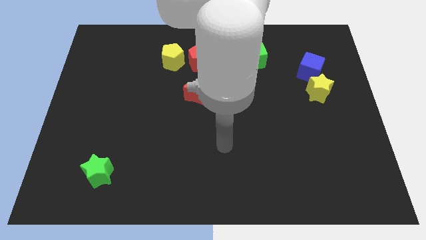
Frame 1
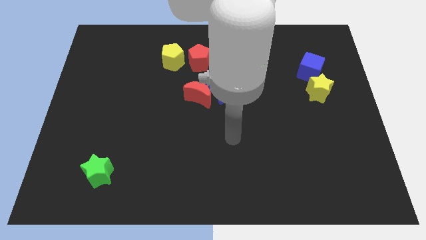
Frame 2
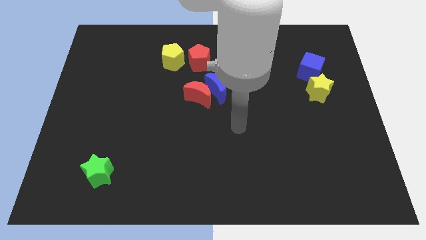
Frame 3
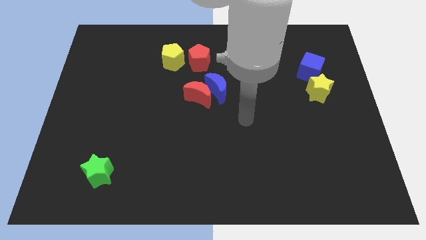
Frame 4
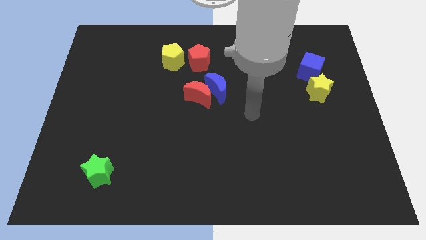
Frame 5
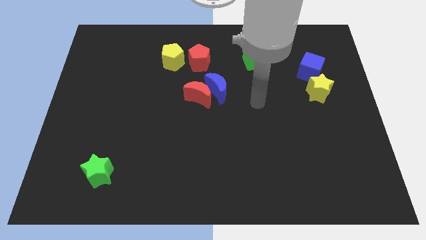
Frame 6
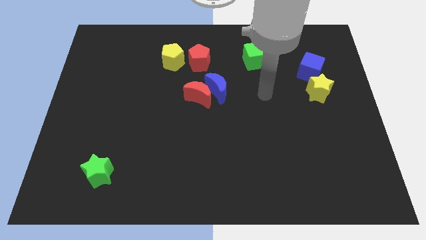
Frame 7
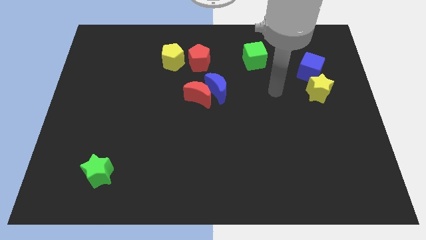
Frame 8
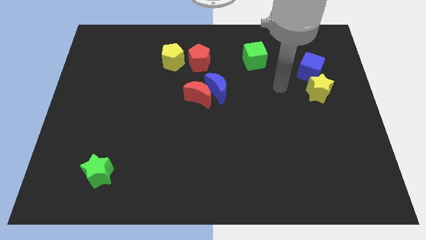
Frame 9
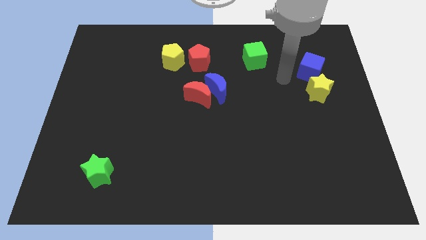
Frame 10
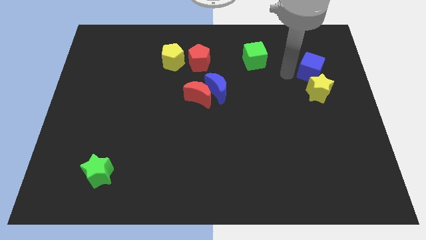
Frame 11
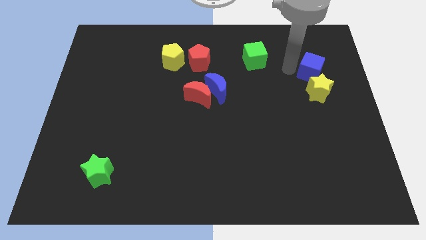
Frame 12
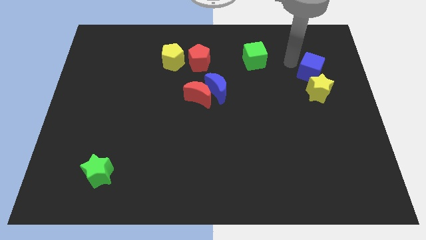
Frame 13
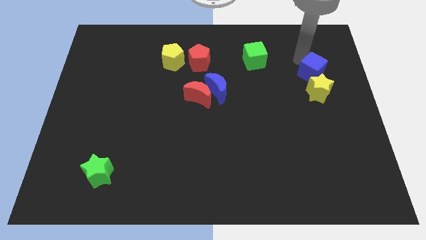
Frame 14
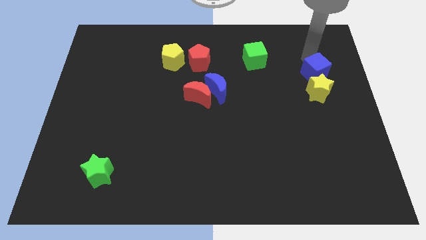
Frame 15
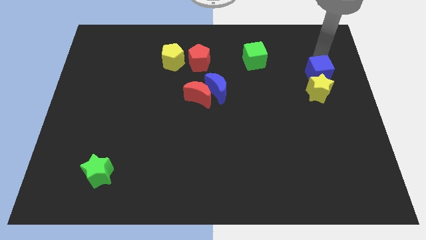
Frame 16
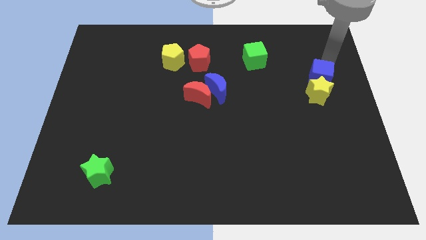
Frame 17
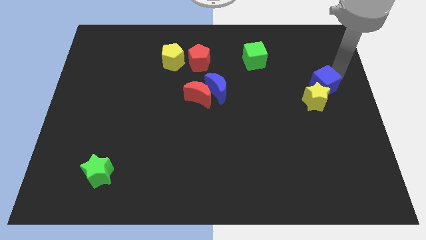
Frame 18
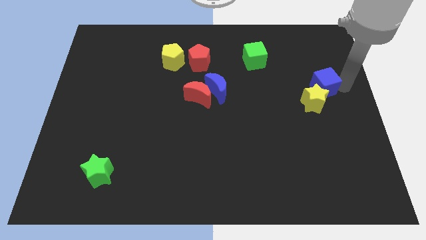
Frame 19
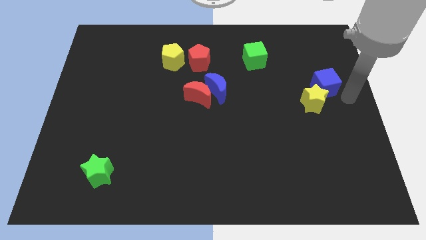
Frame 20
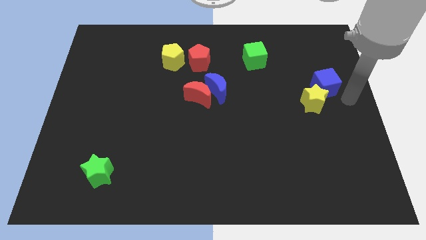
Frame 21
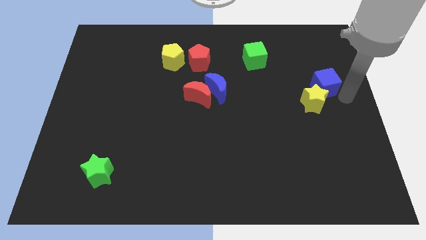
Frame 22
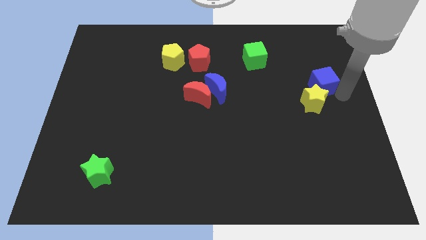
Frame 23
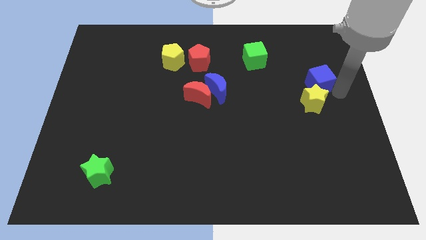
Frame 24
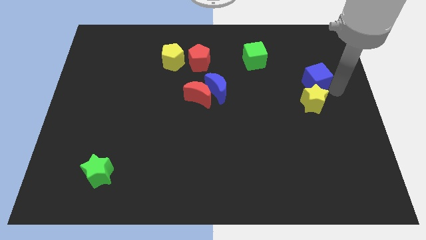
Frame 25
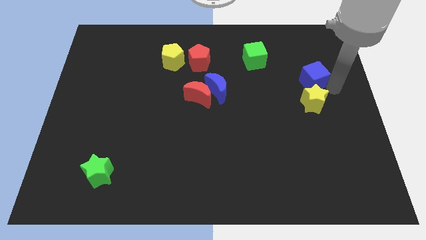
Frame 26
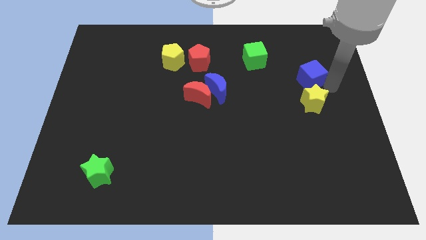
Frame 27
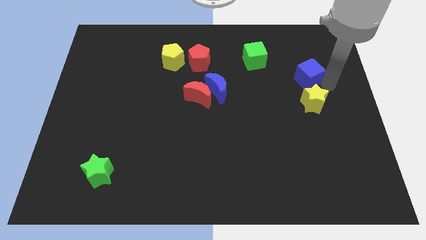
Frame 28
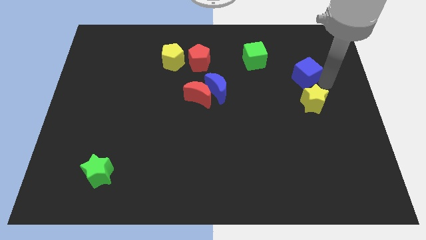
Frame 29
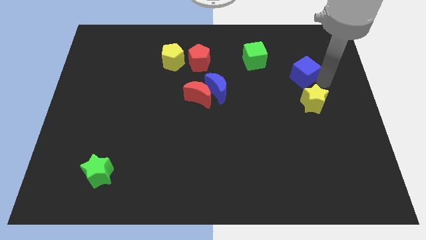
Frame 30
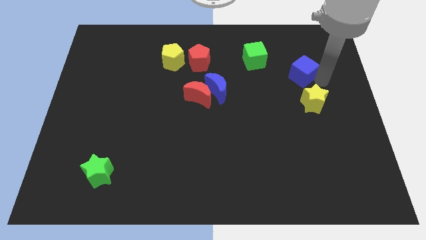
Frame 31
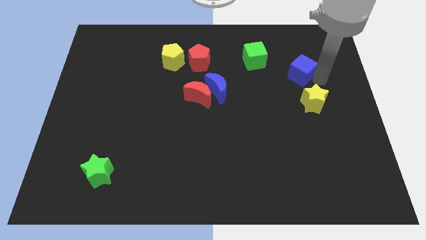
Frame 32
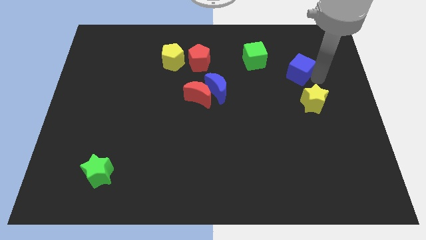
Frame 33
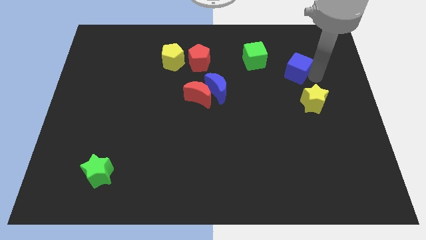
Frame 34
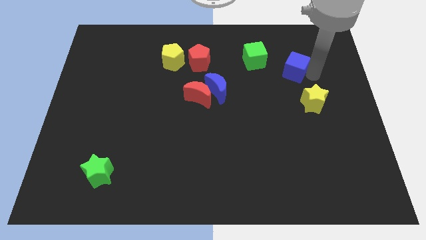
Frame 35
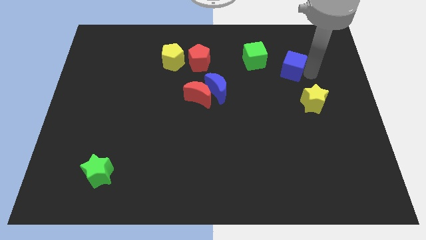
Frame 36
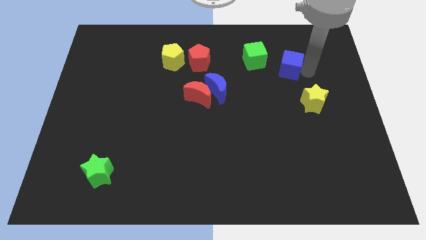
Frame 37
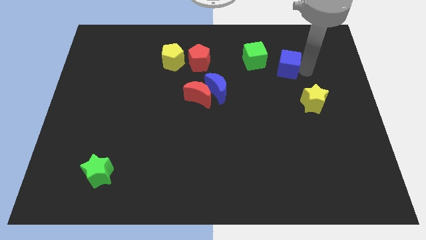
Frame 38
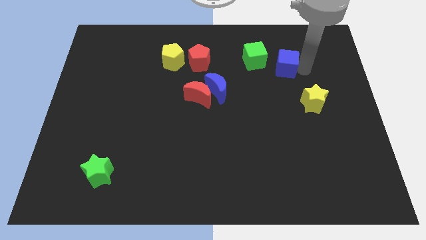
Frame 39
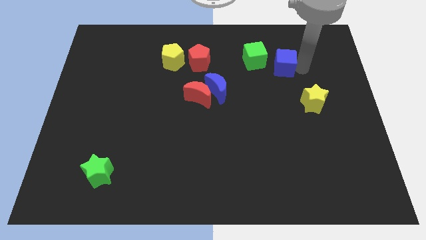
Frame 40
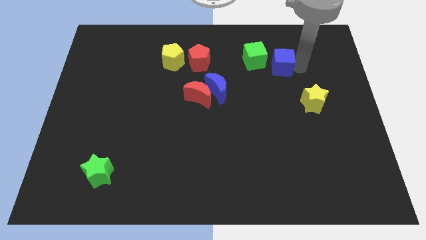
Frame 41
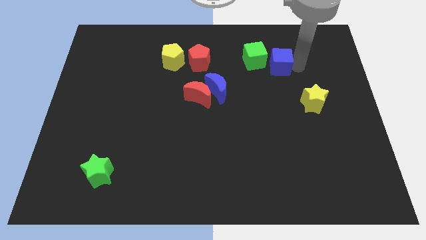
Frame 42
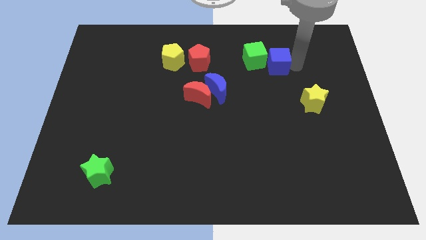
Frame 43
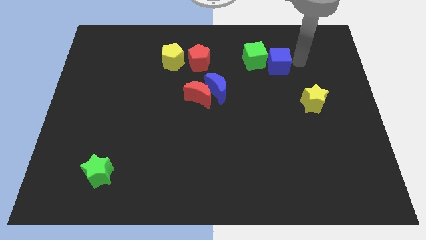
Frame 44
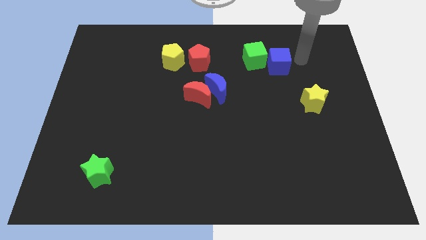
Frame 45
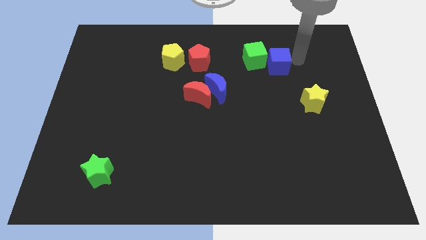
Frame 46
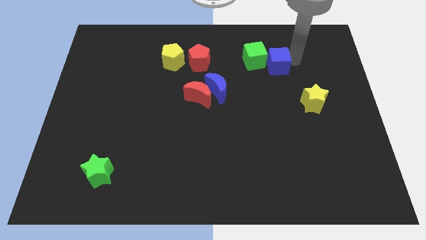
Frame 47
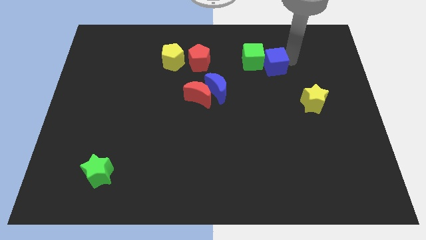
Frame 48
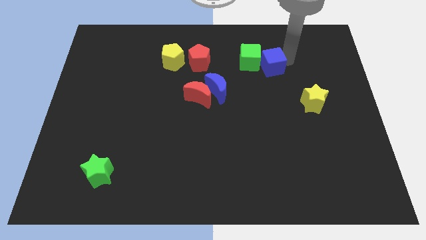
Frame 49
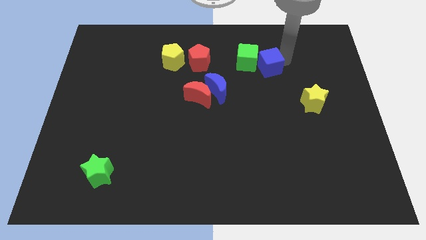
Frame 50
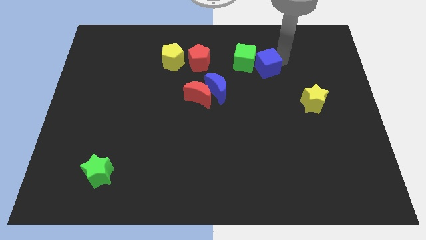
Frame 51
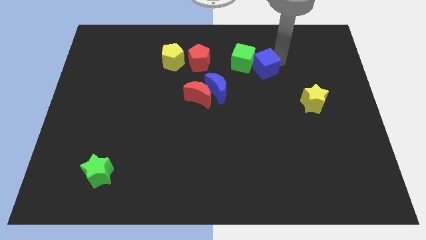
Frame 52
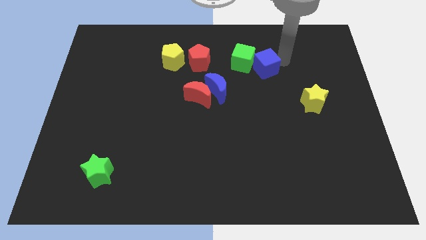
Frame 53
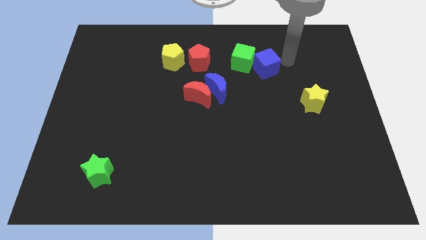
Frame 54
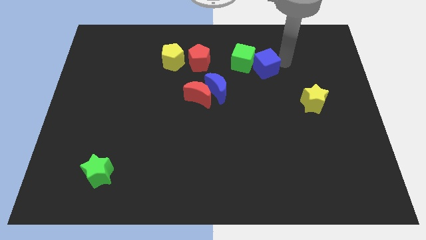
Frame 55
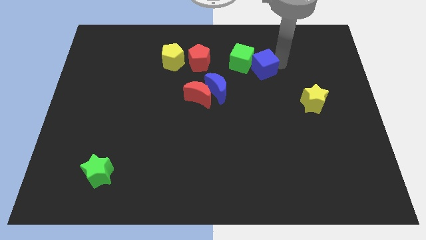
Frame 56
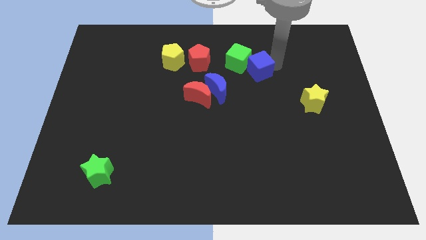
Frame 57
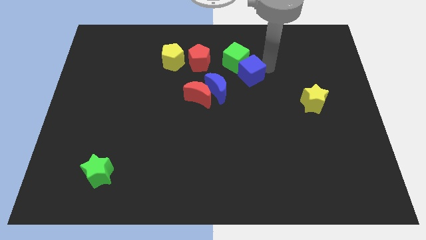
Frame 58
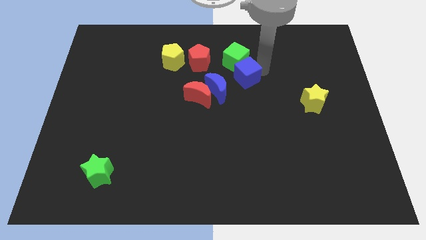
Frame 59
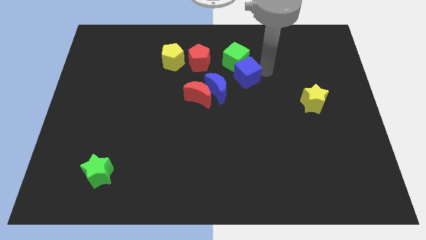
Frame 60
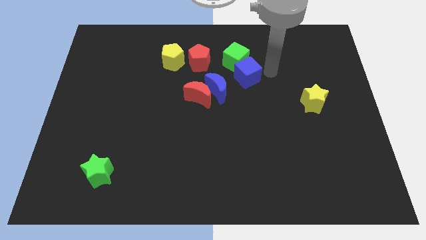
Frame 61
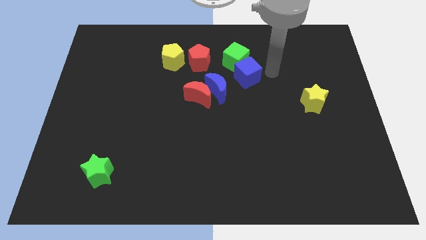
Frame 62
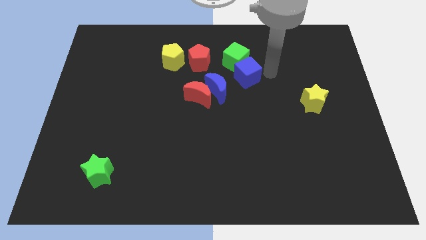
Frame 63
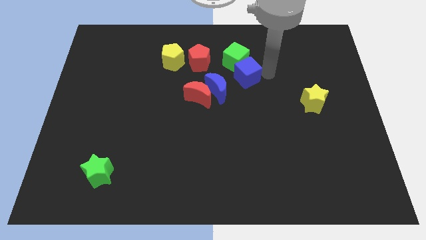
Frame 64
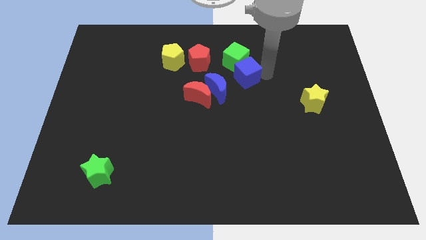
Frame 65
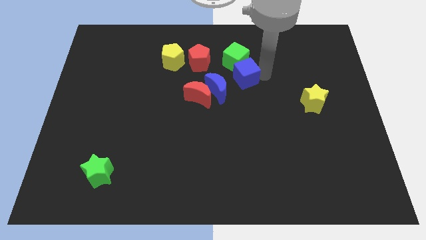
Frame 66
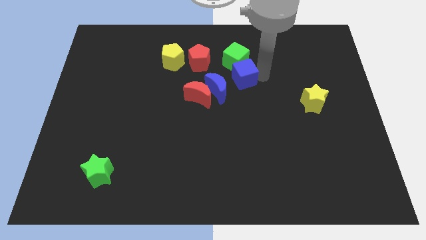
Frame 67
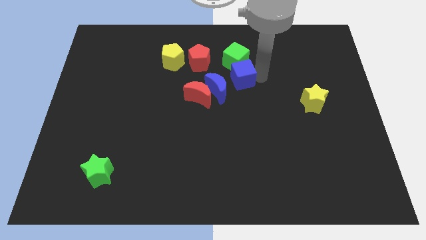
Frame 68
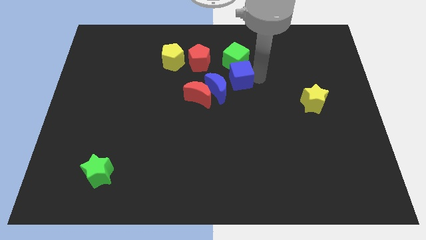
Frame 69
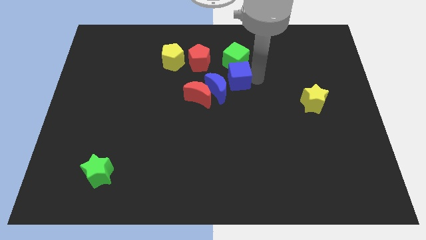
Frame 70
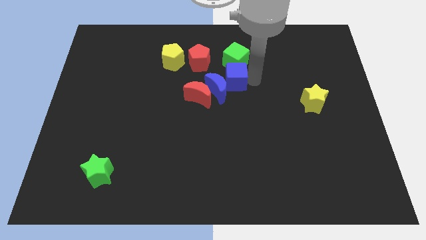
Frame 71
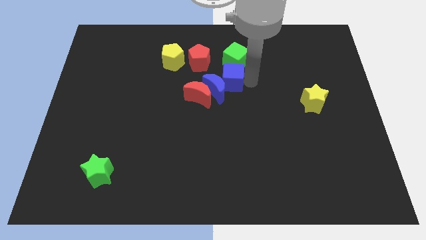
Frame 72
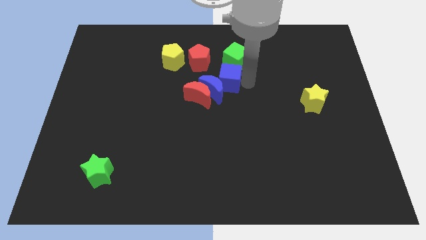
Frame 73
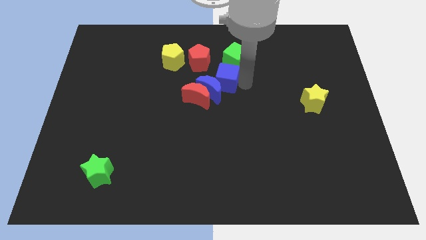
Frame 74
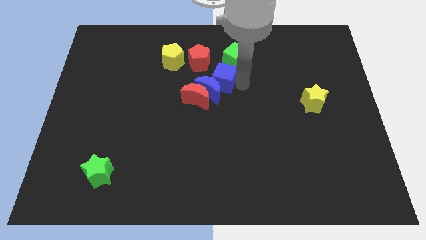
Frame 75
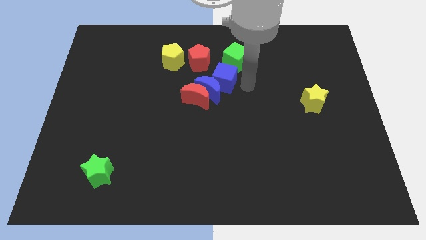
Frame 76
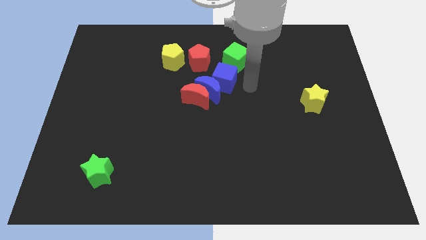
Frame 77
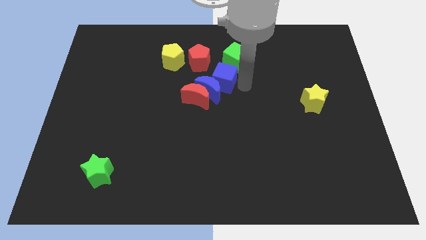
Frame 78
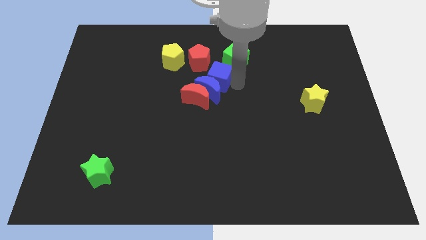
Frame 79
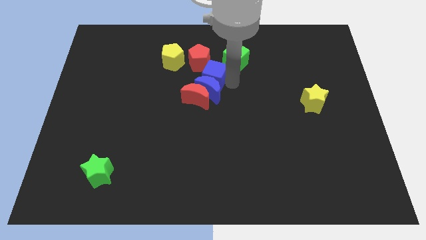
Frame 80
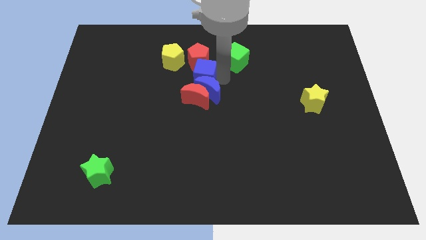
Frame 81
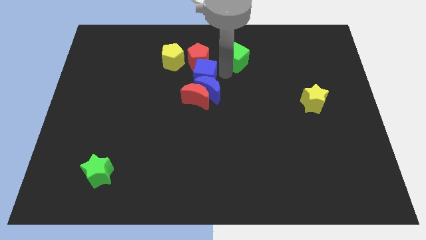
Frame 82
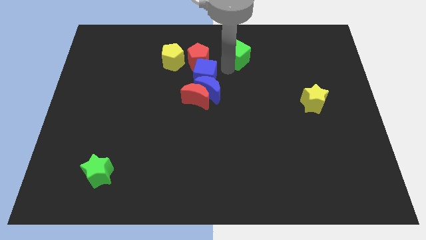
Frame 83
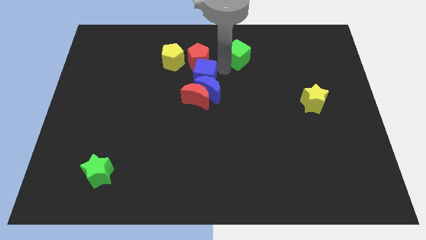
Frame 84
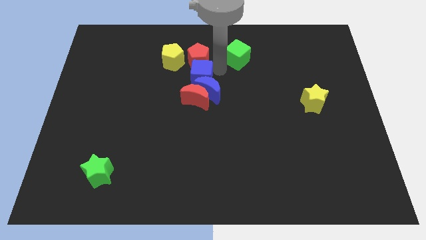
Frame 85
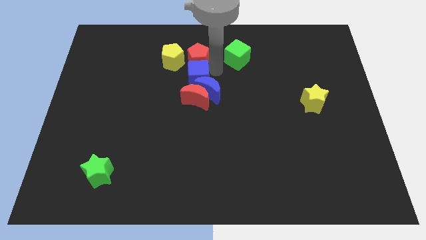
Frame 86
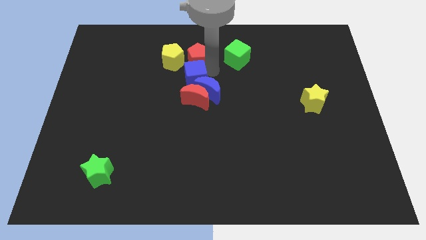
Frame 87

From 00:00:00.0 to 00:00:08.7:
put the blue cube left of the blue moon
